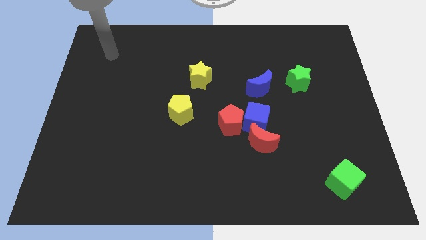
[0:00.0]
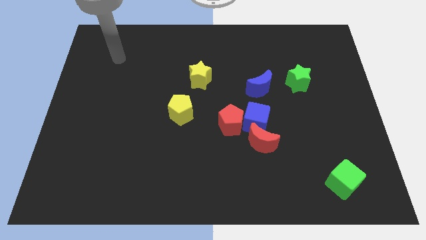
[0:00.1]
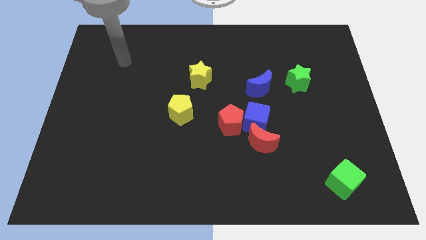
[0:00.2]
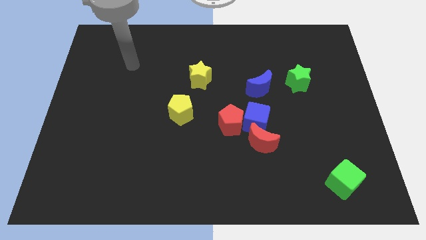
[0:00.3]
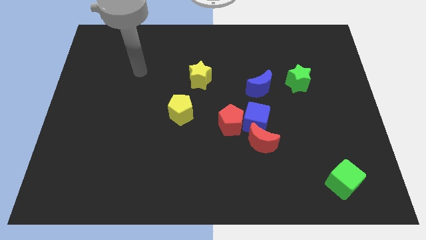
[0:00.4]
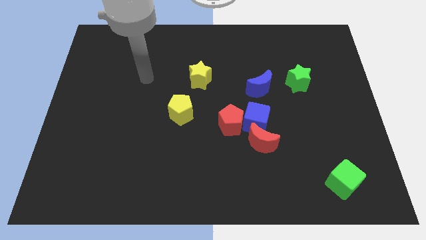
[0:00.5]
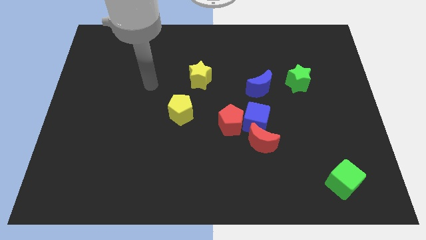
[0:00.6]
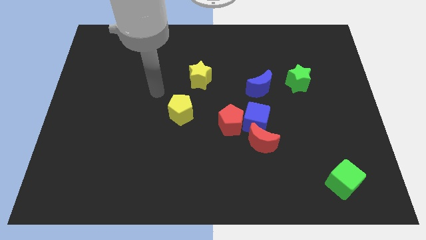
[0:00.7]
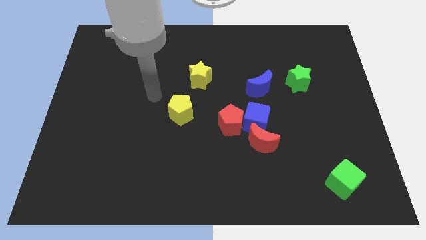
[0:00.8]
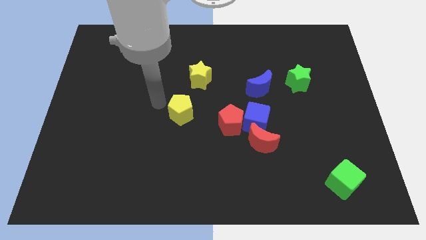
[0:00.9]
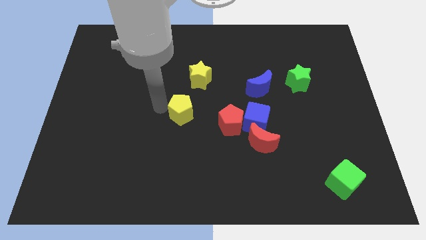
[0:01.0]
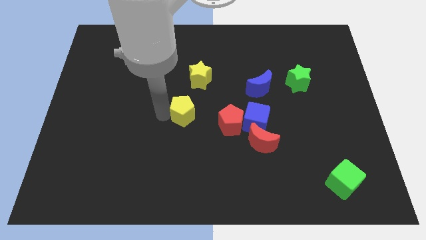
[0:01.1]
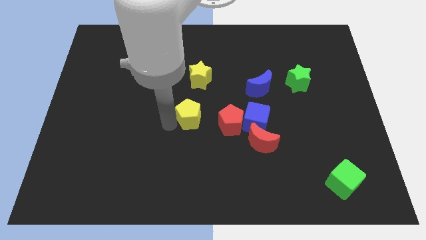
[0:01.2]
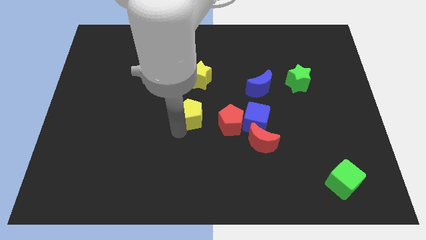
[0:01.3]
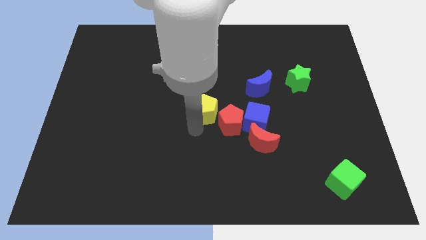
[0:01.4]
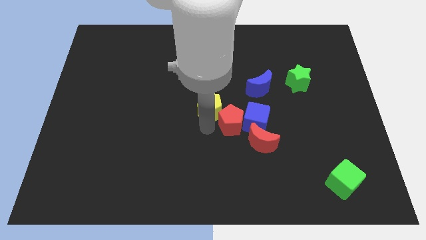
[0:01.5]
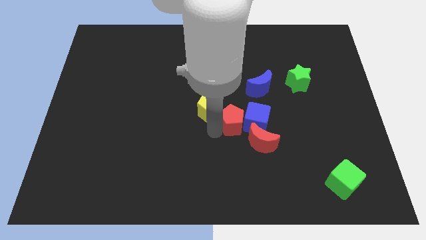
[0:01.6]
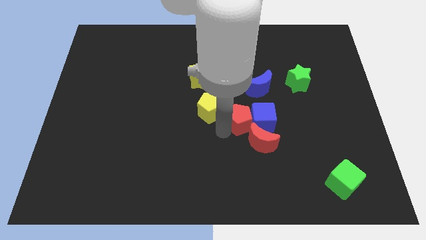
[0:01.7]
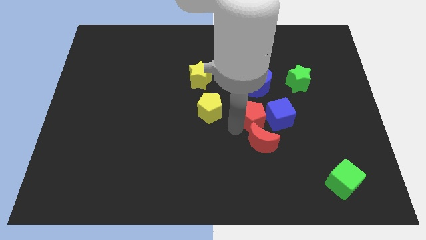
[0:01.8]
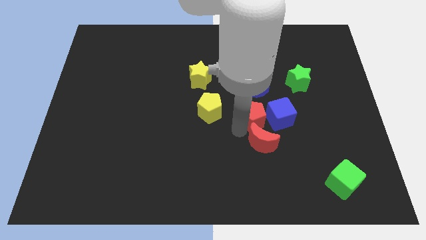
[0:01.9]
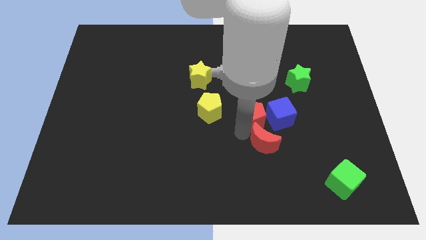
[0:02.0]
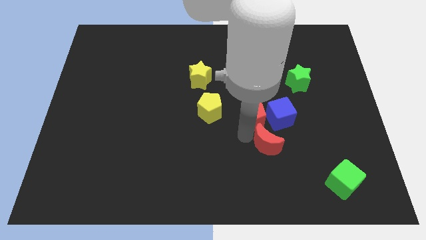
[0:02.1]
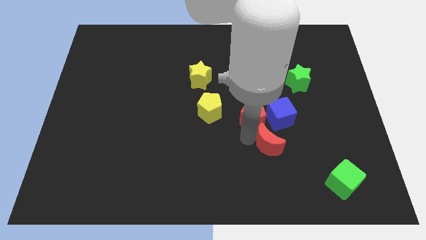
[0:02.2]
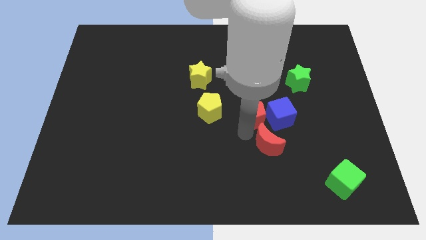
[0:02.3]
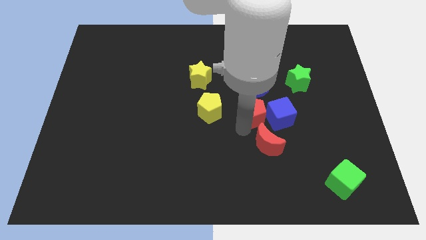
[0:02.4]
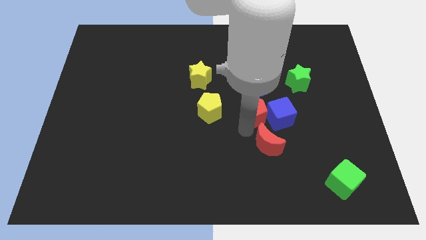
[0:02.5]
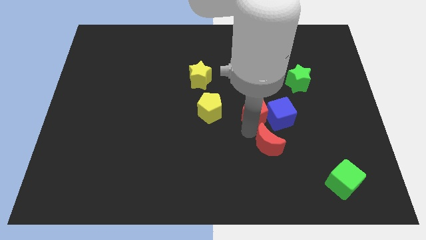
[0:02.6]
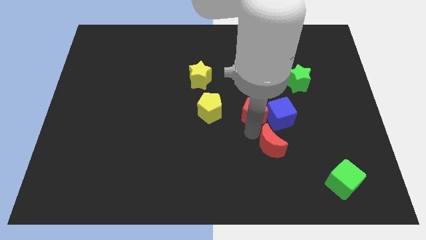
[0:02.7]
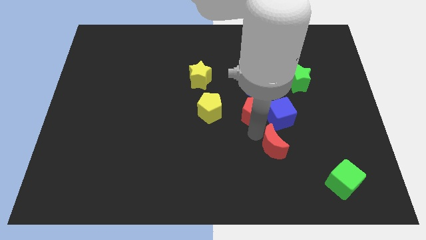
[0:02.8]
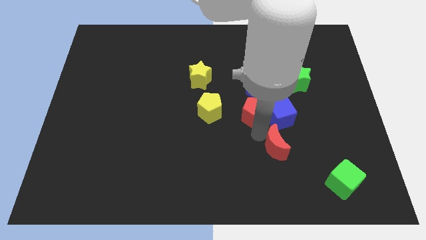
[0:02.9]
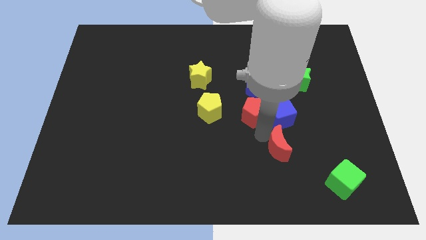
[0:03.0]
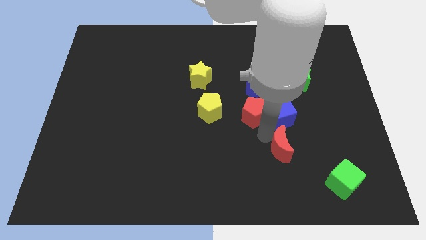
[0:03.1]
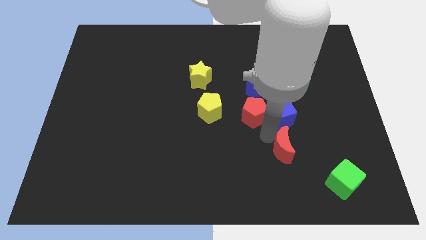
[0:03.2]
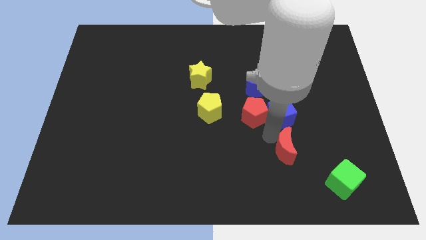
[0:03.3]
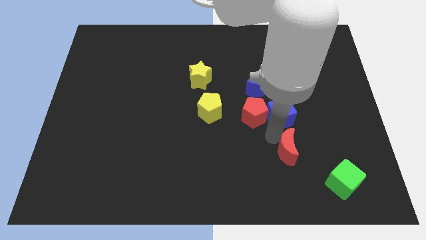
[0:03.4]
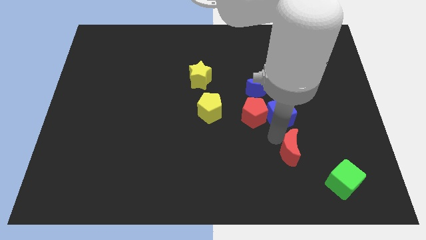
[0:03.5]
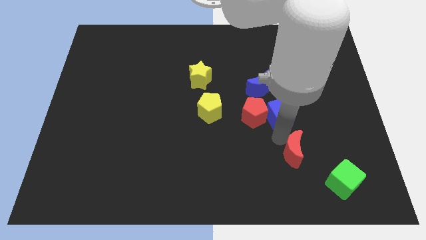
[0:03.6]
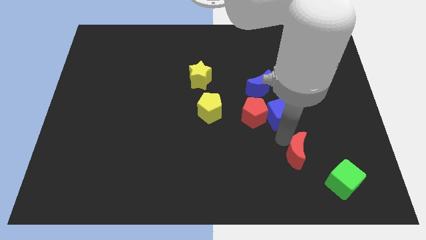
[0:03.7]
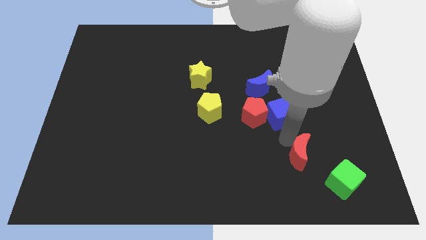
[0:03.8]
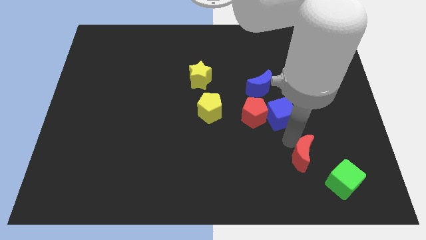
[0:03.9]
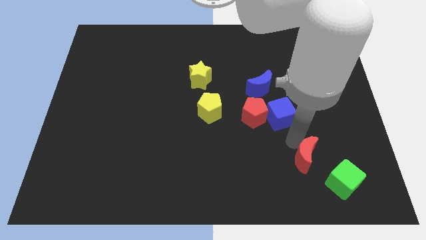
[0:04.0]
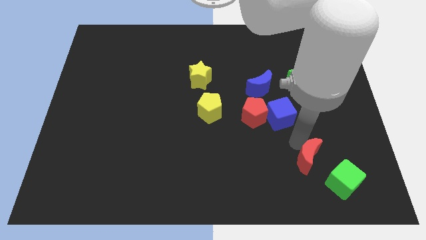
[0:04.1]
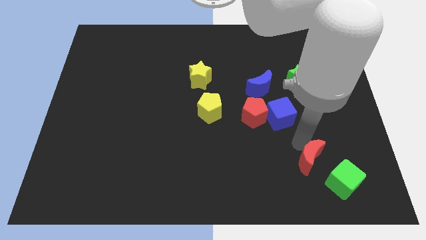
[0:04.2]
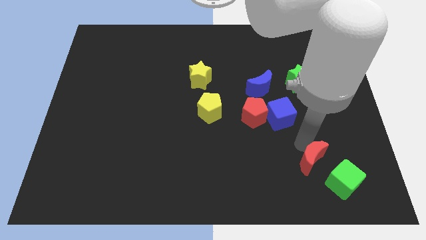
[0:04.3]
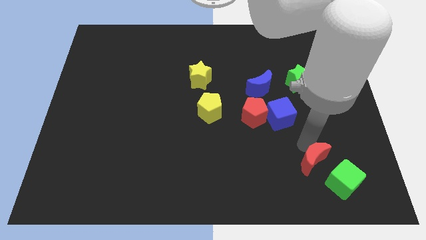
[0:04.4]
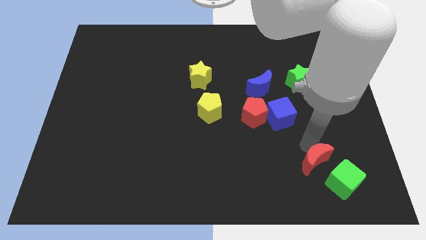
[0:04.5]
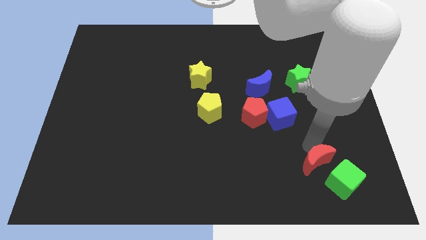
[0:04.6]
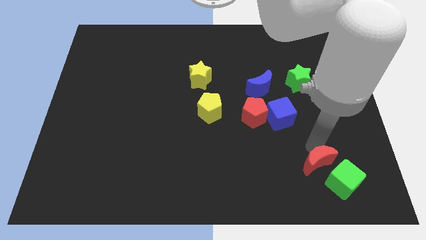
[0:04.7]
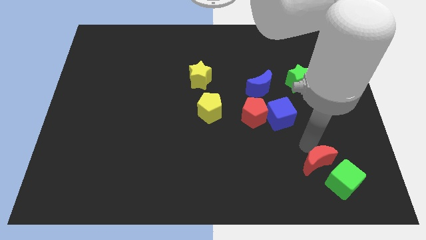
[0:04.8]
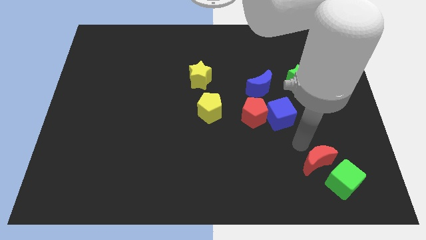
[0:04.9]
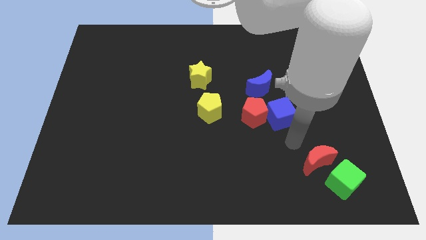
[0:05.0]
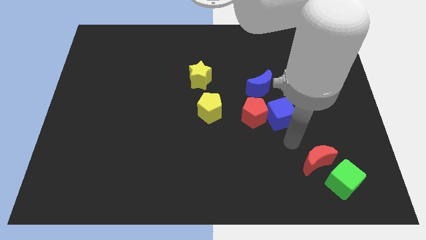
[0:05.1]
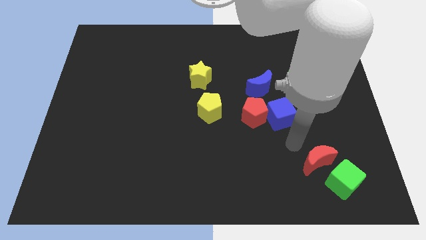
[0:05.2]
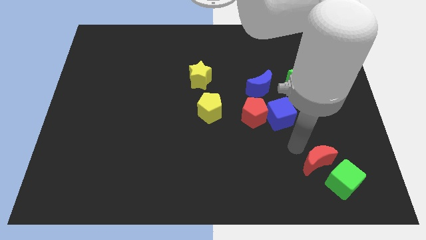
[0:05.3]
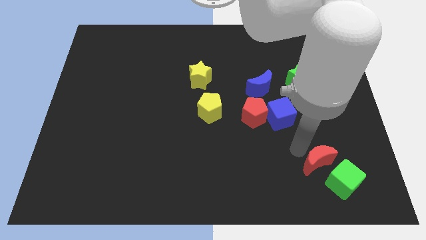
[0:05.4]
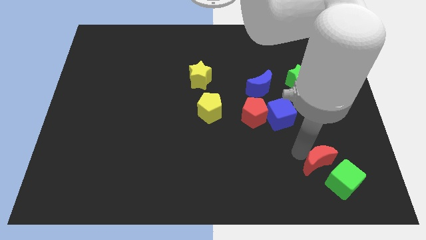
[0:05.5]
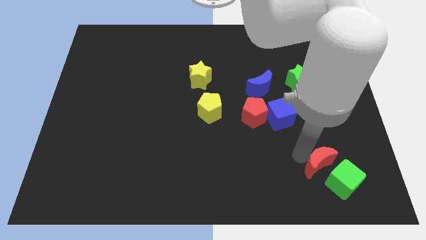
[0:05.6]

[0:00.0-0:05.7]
slide the red moon to the green cube

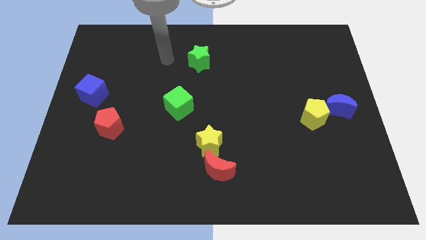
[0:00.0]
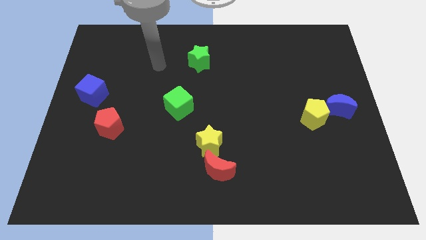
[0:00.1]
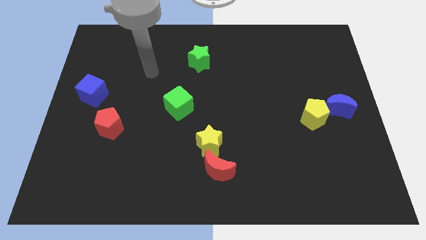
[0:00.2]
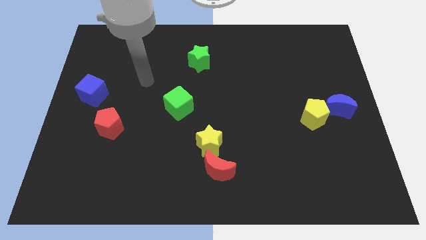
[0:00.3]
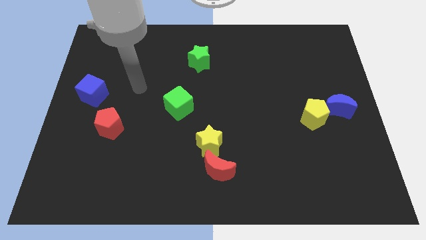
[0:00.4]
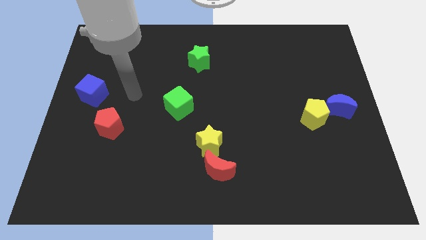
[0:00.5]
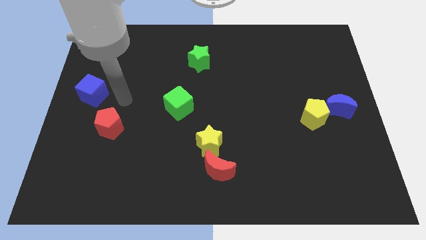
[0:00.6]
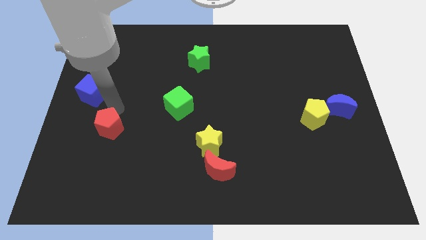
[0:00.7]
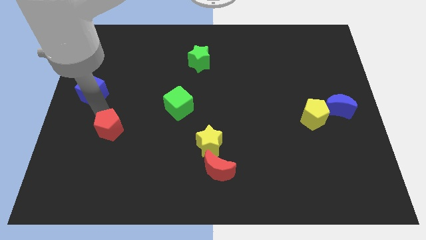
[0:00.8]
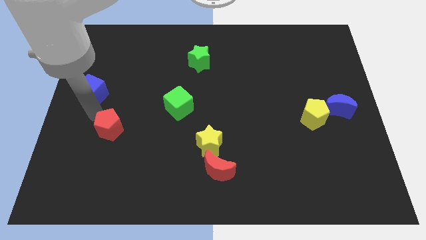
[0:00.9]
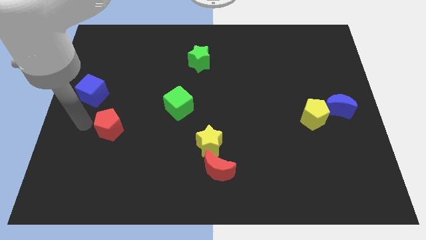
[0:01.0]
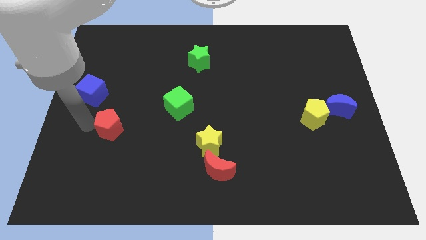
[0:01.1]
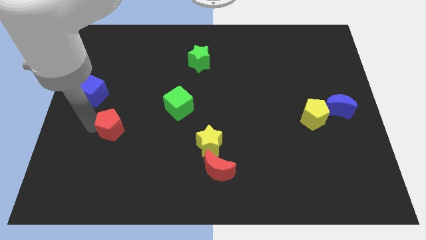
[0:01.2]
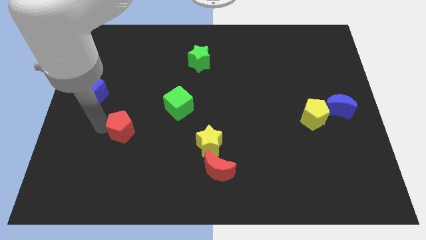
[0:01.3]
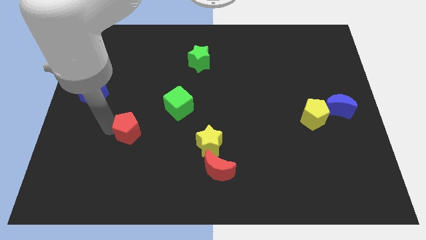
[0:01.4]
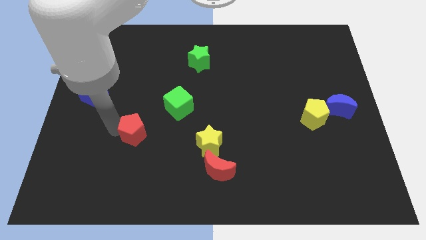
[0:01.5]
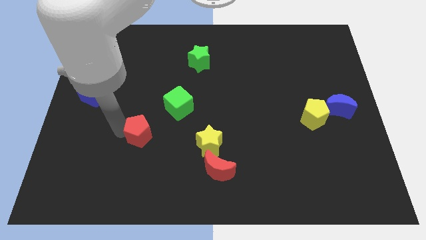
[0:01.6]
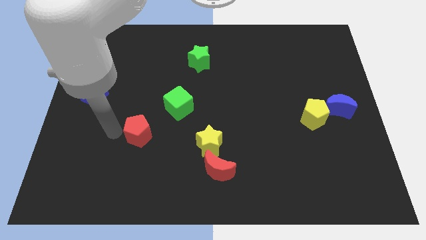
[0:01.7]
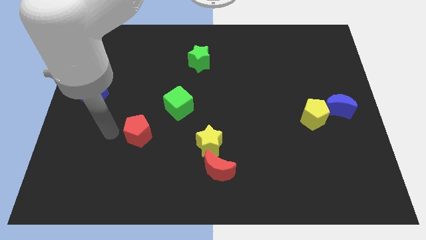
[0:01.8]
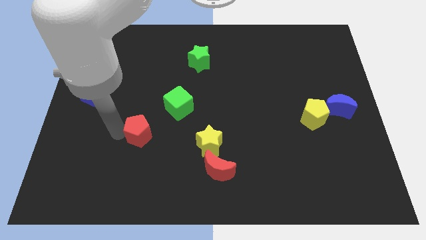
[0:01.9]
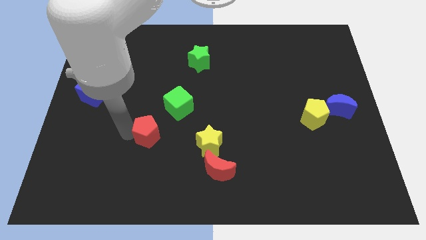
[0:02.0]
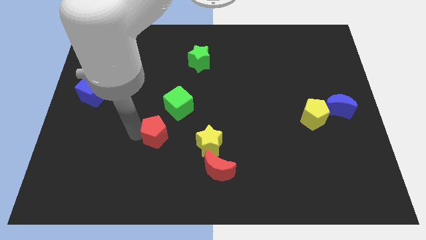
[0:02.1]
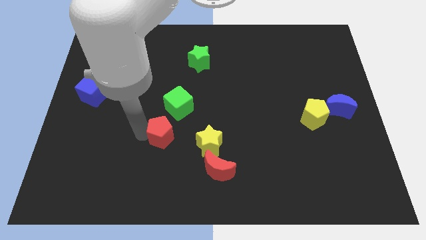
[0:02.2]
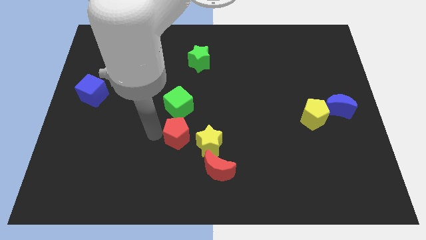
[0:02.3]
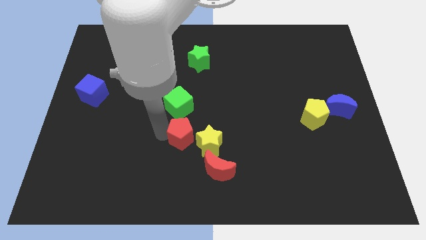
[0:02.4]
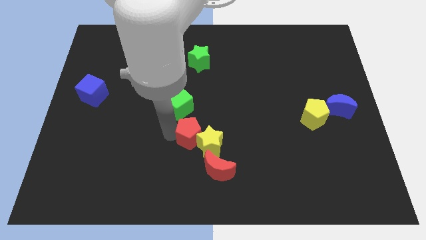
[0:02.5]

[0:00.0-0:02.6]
slide the red pentagon next to the yellow star
